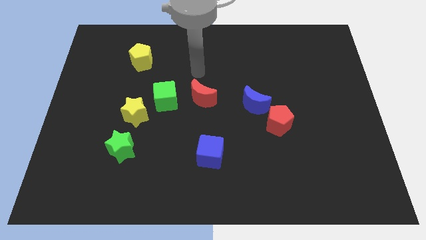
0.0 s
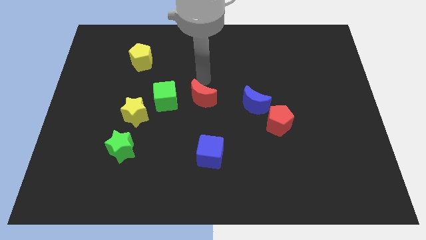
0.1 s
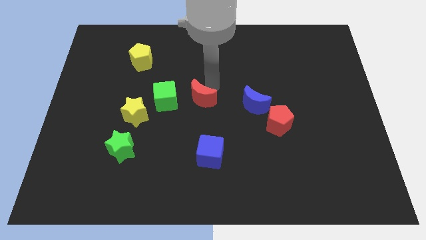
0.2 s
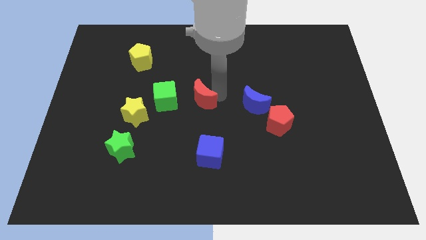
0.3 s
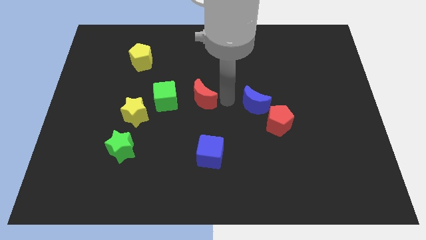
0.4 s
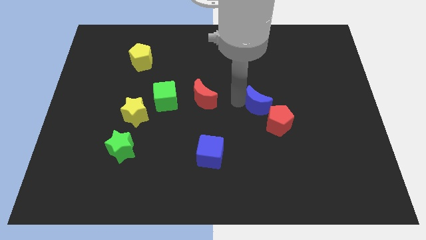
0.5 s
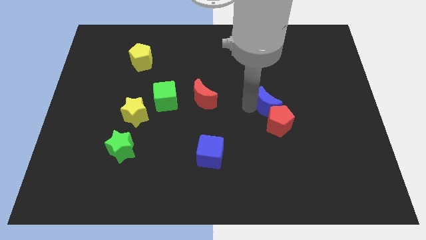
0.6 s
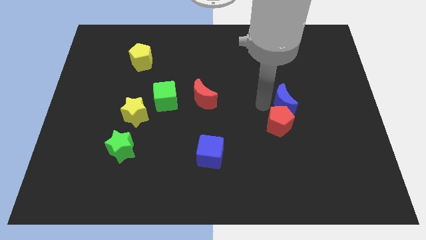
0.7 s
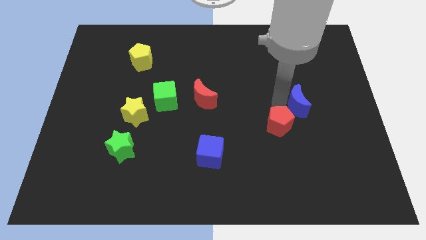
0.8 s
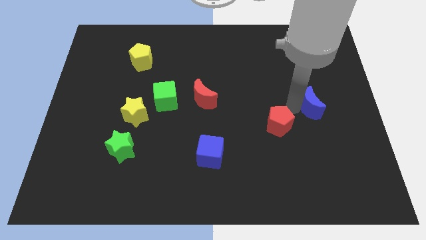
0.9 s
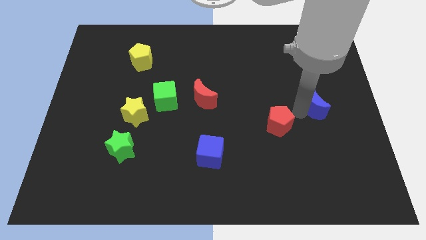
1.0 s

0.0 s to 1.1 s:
separate the red pentagon from the blue moon

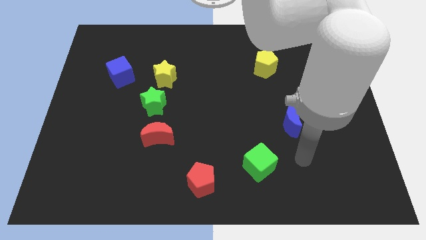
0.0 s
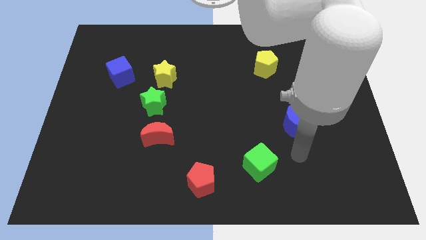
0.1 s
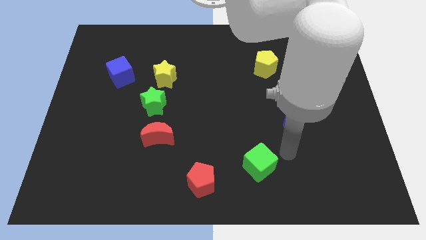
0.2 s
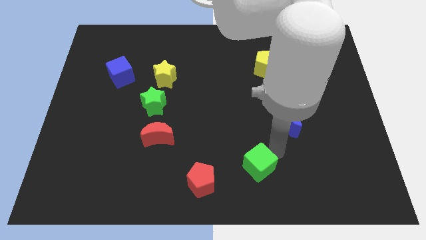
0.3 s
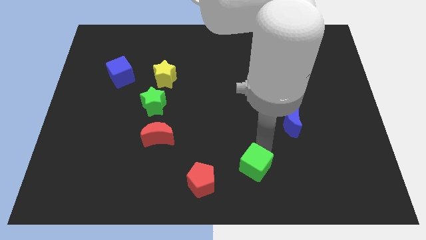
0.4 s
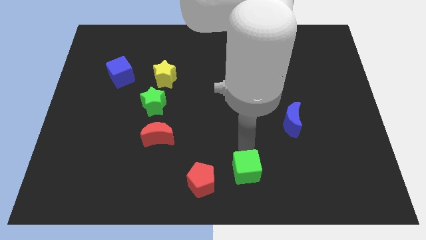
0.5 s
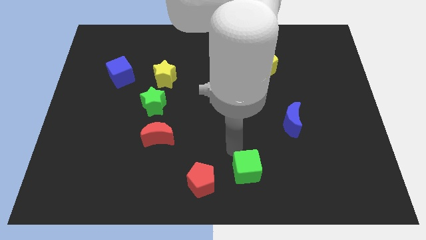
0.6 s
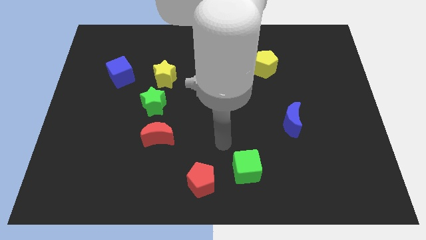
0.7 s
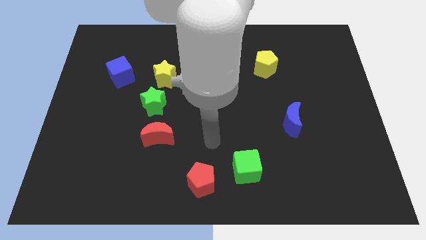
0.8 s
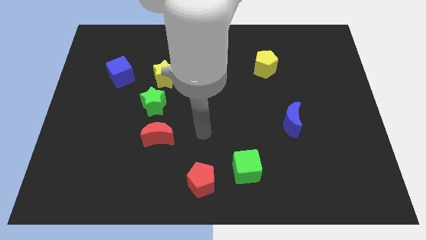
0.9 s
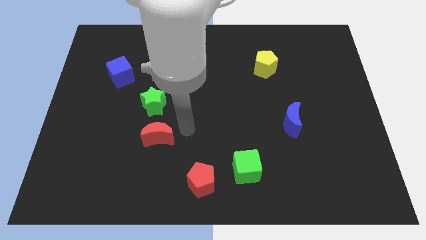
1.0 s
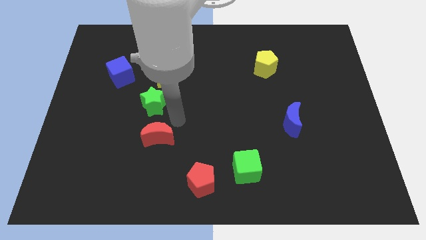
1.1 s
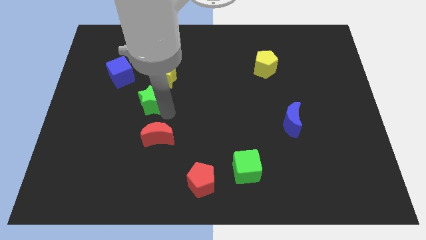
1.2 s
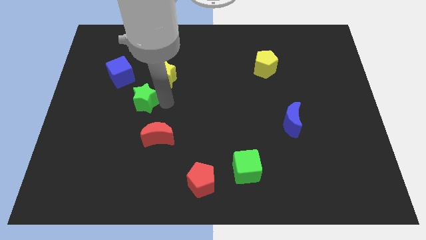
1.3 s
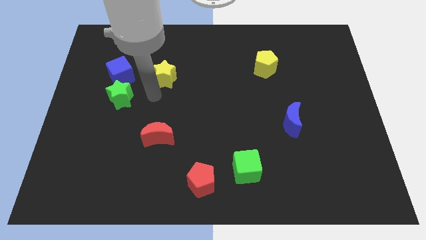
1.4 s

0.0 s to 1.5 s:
move the yellow star away from the green star

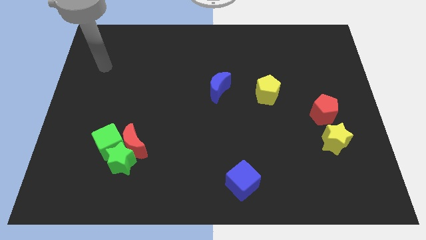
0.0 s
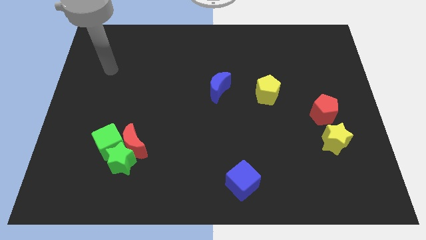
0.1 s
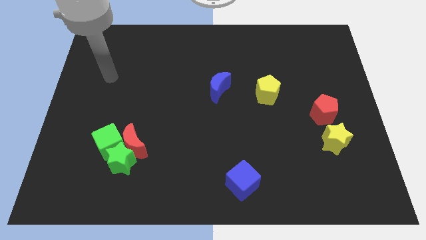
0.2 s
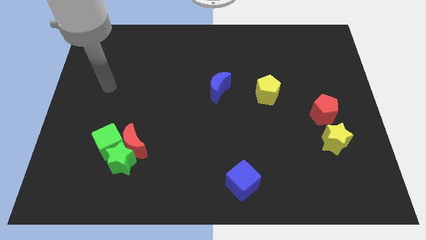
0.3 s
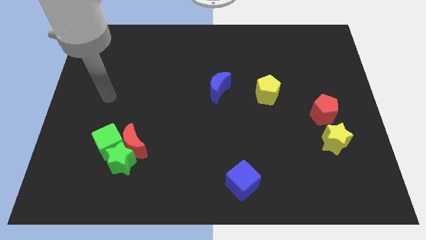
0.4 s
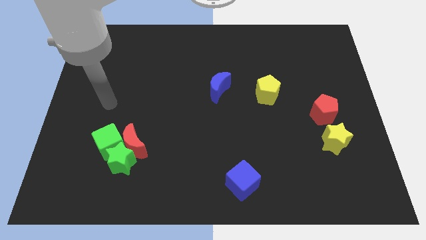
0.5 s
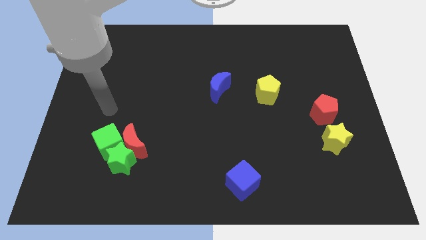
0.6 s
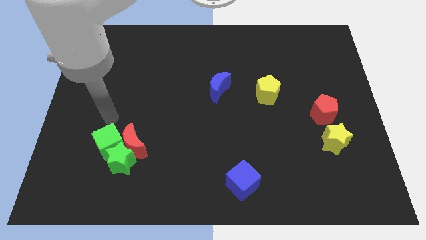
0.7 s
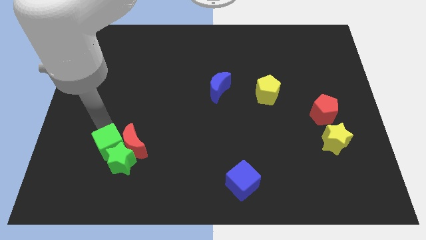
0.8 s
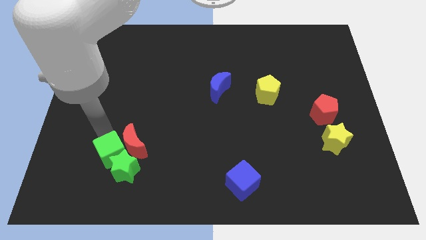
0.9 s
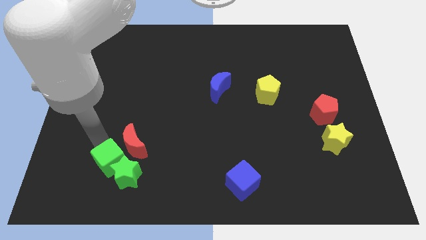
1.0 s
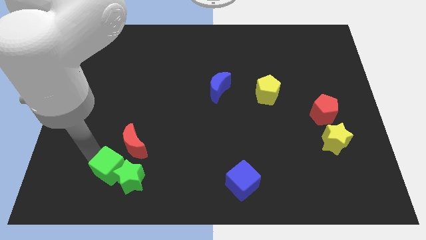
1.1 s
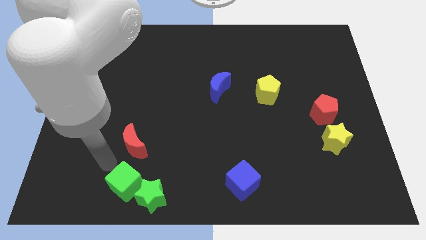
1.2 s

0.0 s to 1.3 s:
pull the red moon apart from the green star and green cube

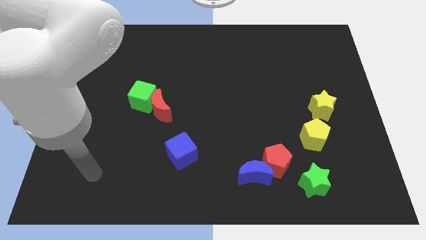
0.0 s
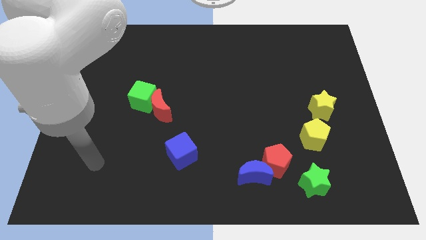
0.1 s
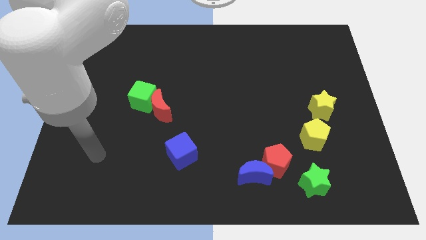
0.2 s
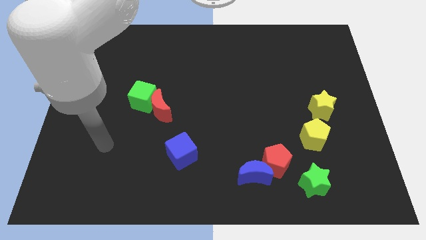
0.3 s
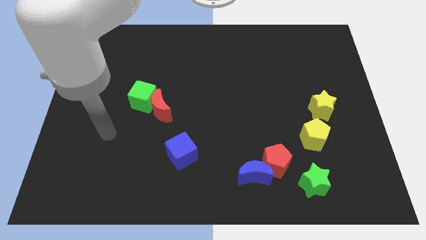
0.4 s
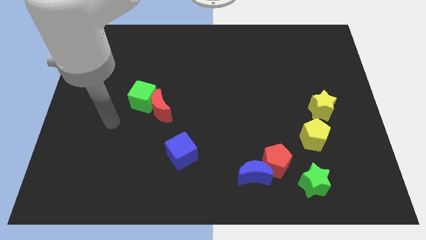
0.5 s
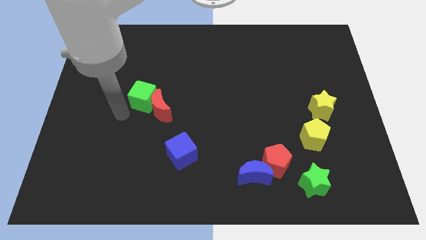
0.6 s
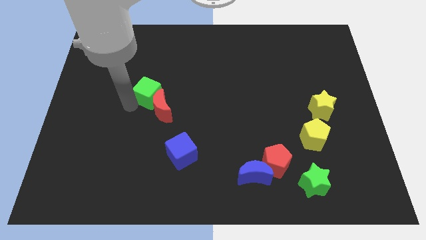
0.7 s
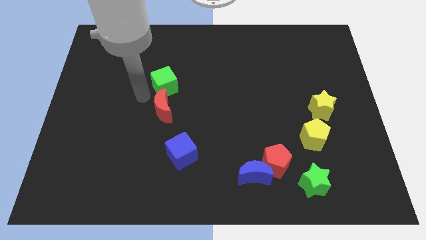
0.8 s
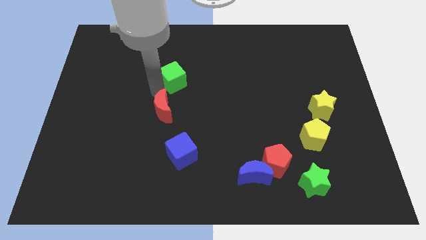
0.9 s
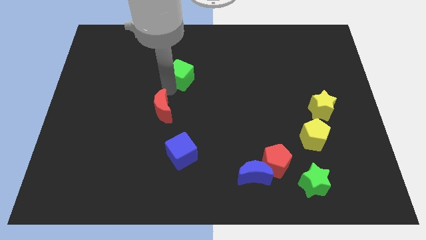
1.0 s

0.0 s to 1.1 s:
move the red moon away from the green cube

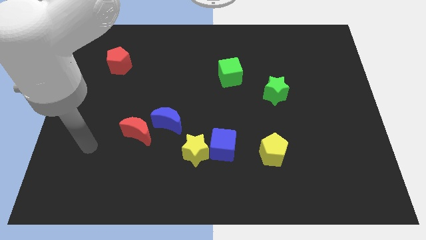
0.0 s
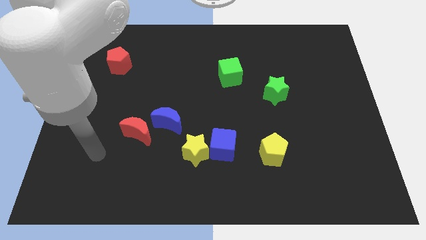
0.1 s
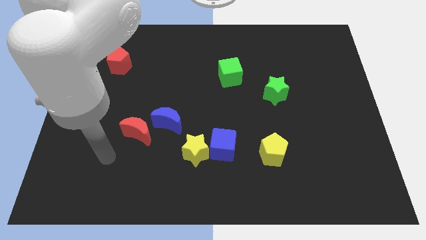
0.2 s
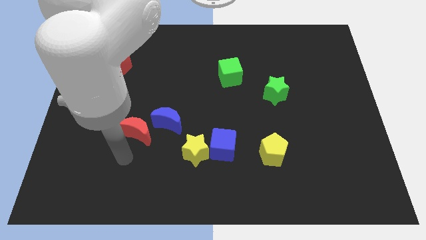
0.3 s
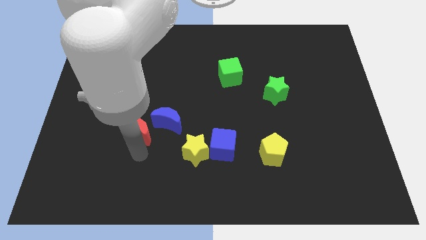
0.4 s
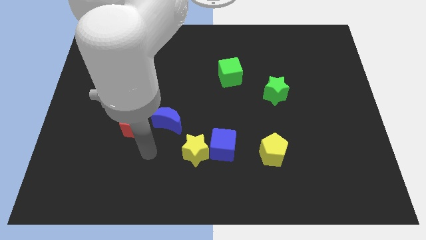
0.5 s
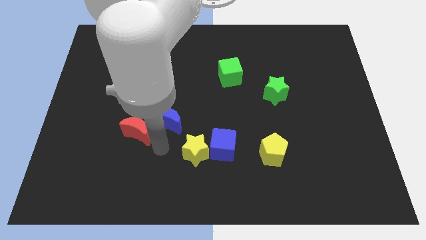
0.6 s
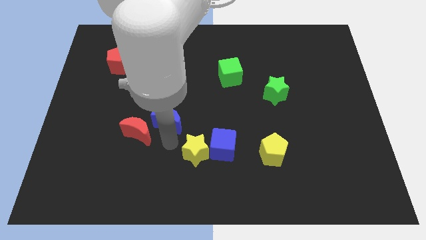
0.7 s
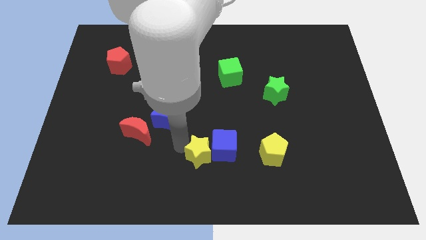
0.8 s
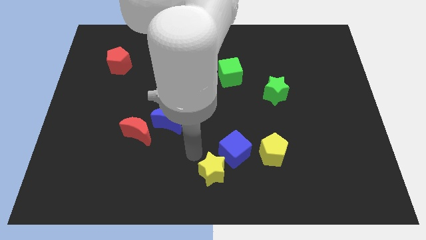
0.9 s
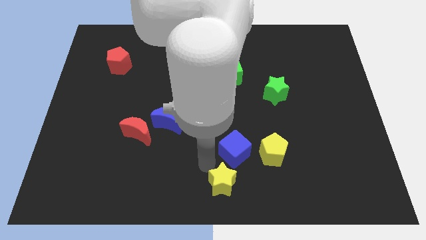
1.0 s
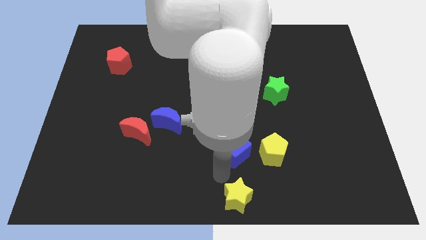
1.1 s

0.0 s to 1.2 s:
separate the blue cube from the yellow star

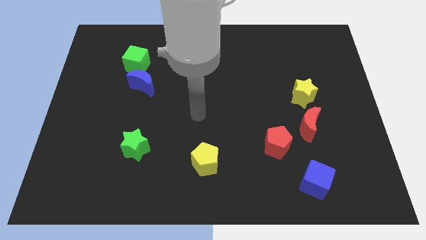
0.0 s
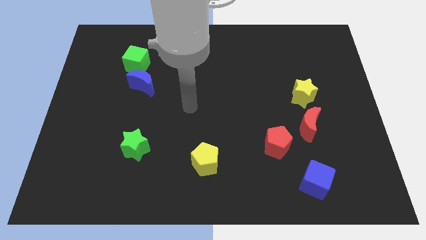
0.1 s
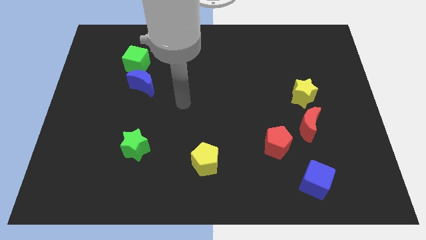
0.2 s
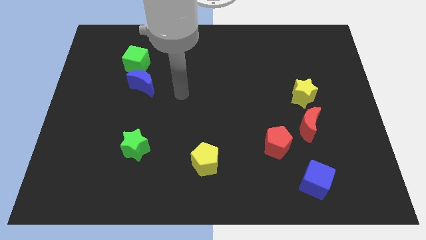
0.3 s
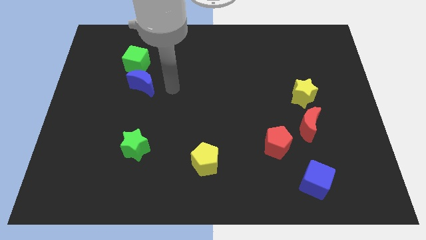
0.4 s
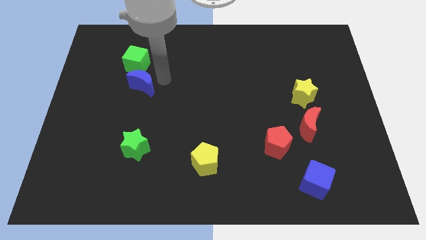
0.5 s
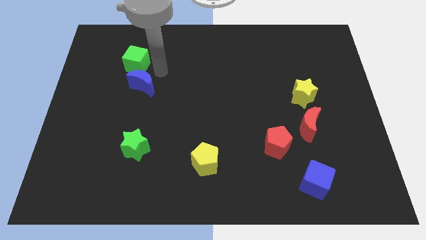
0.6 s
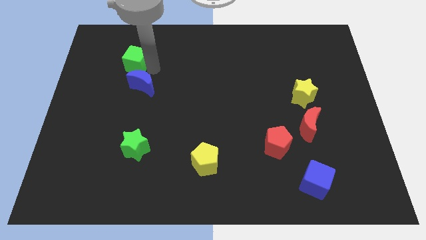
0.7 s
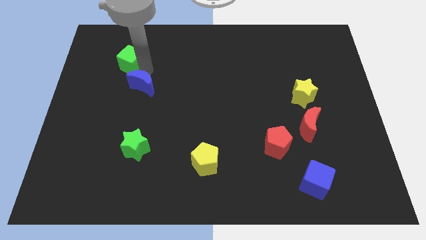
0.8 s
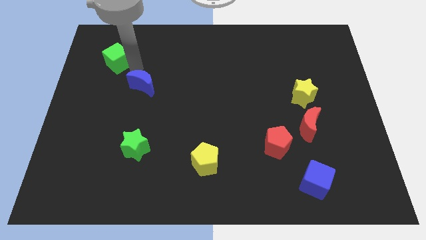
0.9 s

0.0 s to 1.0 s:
move the blue moon away from the green cube

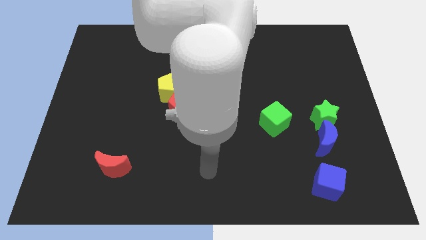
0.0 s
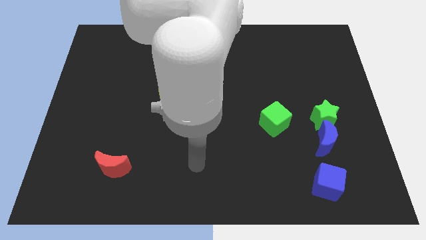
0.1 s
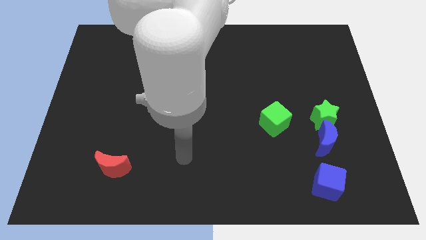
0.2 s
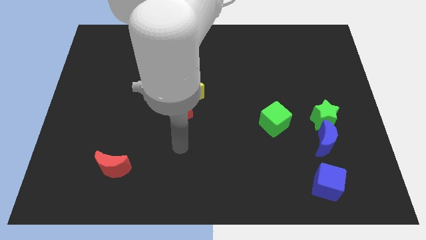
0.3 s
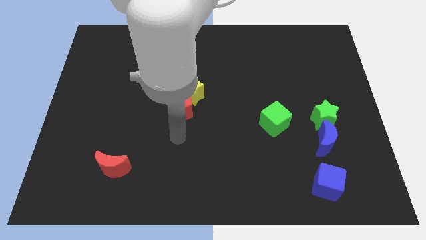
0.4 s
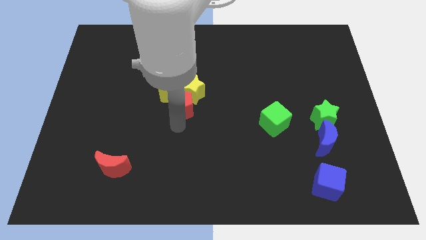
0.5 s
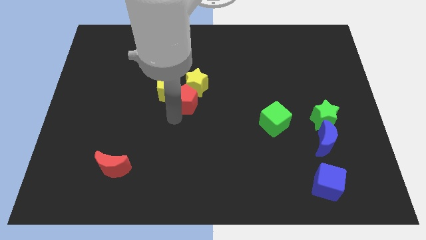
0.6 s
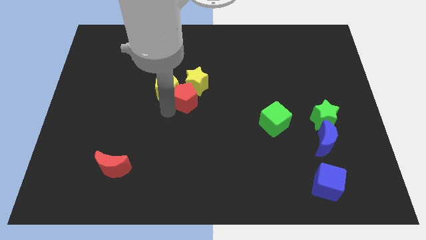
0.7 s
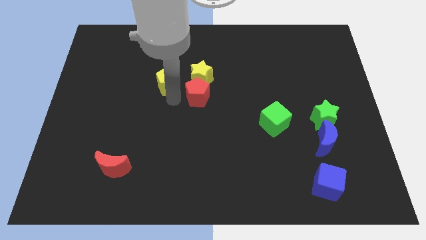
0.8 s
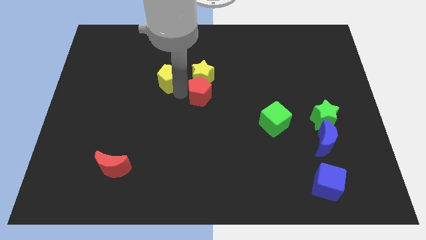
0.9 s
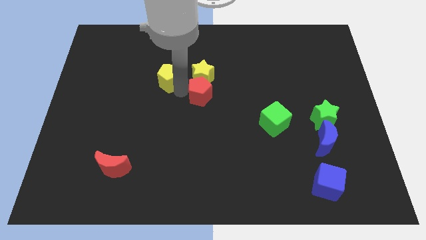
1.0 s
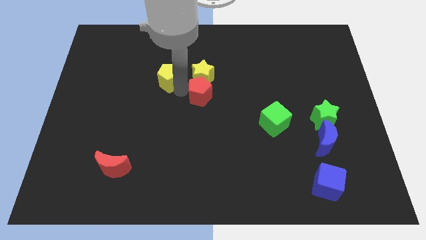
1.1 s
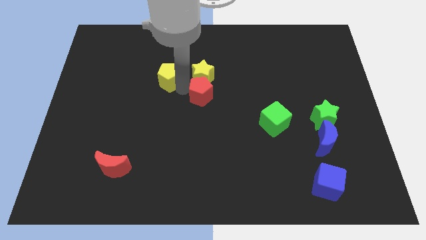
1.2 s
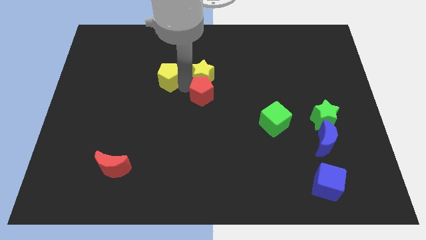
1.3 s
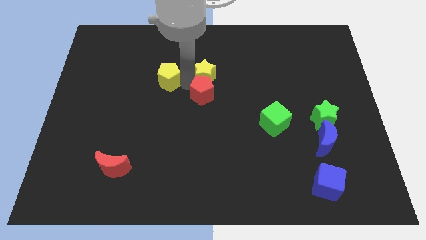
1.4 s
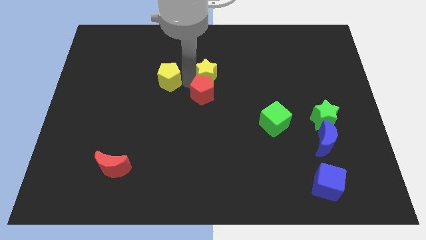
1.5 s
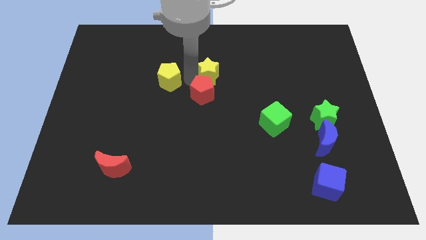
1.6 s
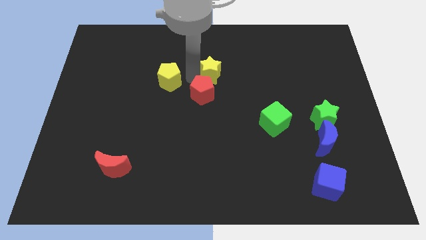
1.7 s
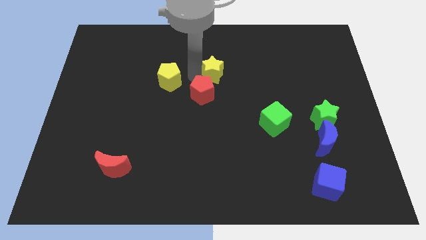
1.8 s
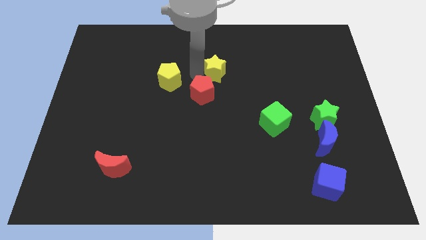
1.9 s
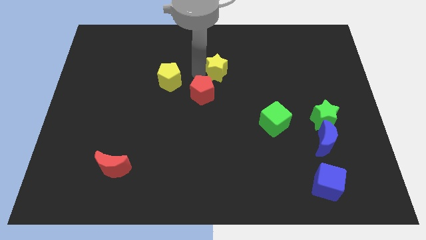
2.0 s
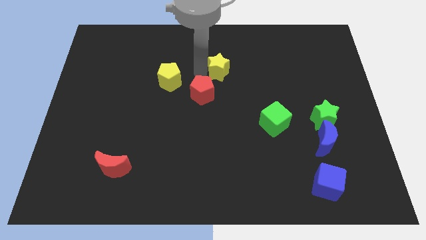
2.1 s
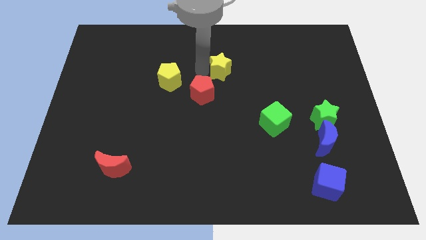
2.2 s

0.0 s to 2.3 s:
separate the yellow star from the yellow pentagon and red pentagon
